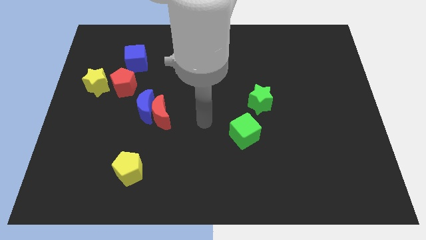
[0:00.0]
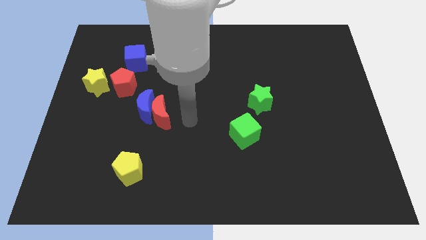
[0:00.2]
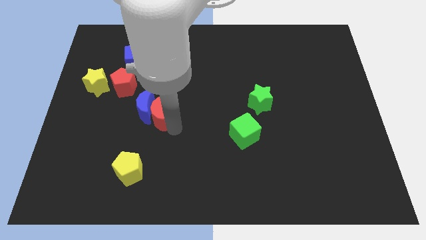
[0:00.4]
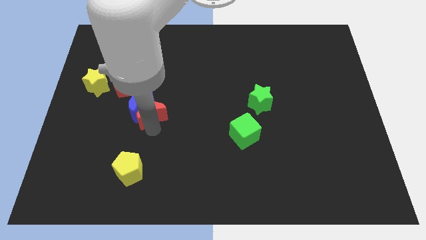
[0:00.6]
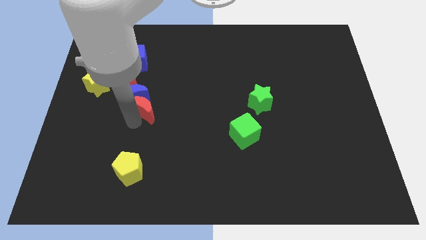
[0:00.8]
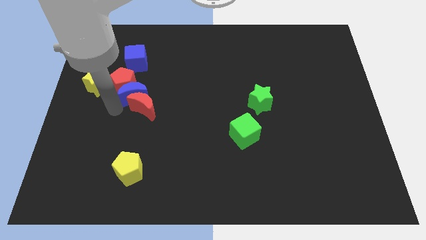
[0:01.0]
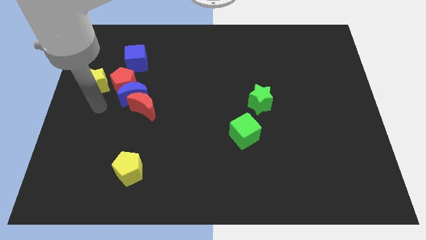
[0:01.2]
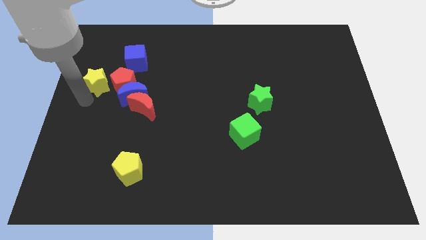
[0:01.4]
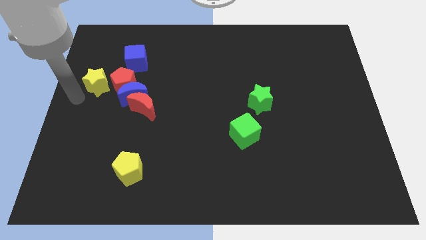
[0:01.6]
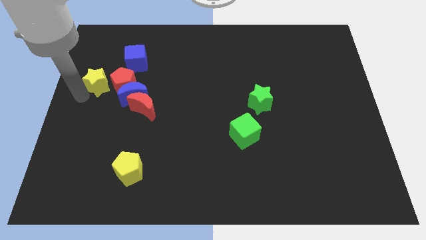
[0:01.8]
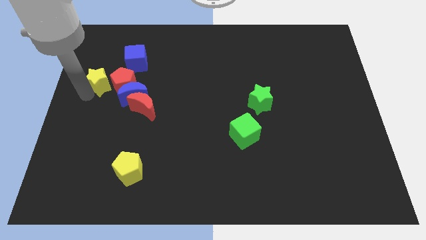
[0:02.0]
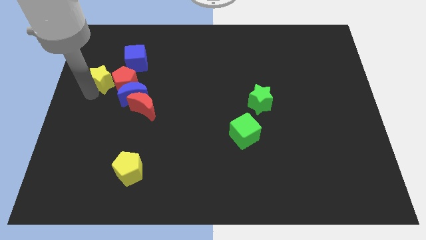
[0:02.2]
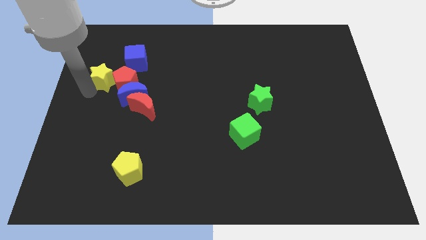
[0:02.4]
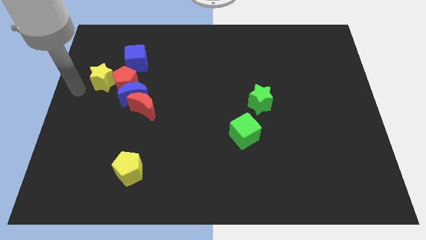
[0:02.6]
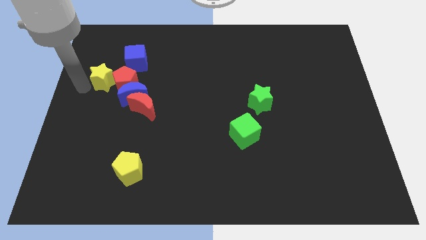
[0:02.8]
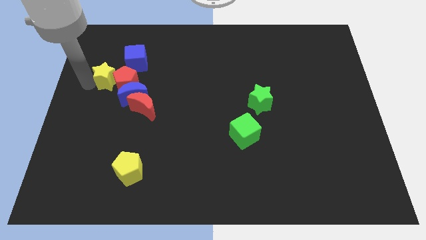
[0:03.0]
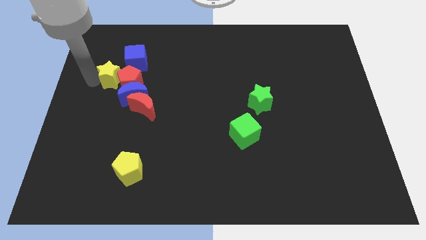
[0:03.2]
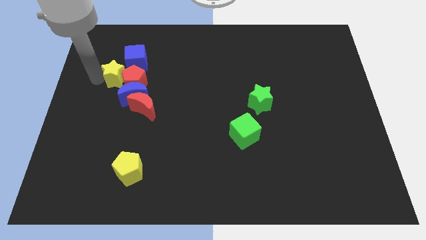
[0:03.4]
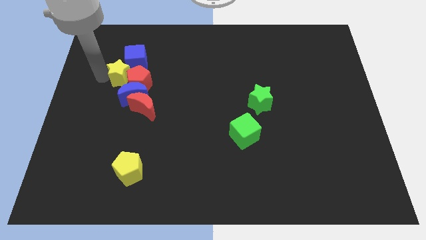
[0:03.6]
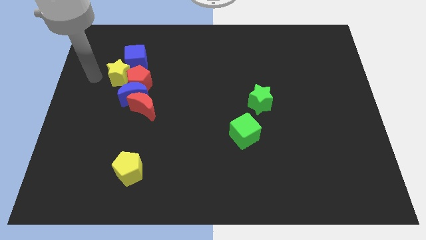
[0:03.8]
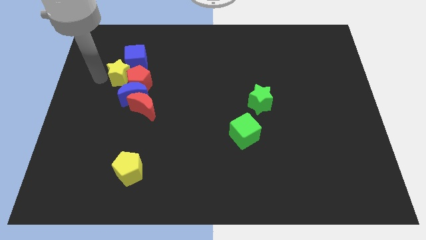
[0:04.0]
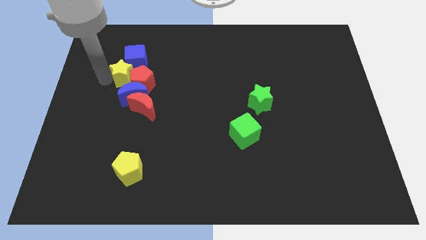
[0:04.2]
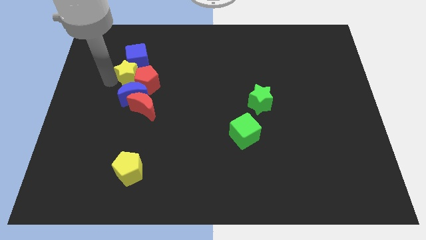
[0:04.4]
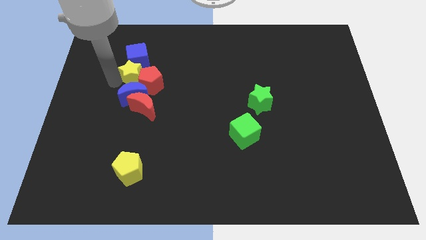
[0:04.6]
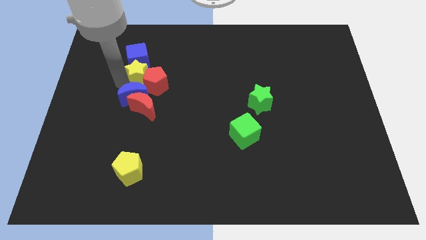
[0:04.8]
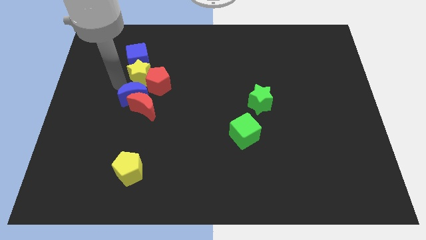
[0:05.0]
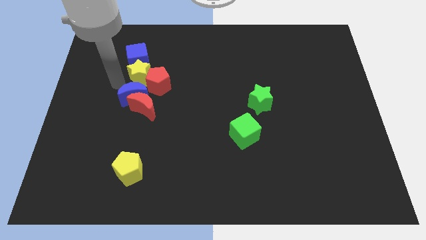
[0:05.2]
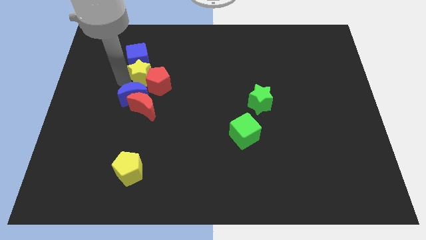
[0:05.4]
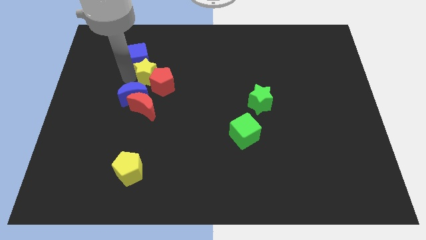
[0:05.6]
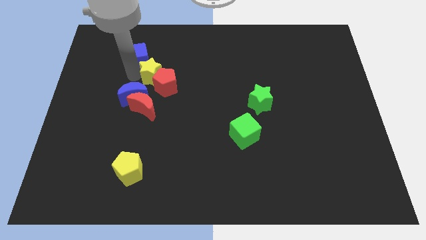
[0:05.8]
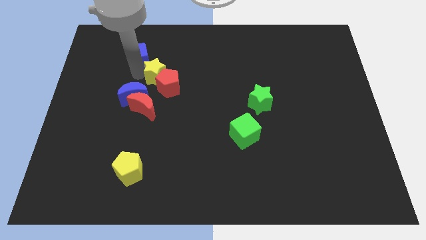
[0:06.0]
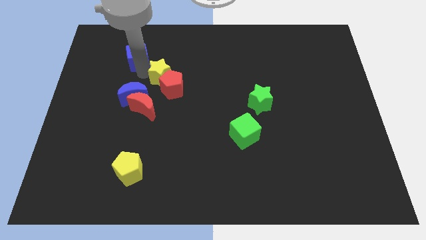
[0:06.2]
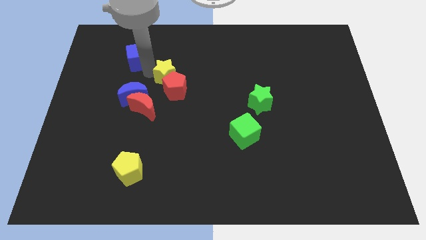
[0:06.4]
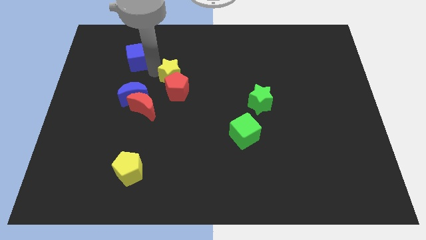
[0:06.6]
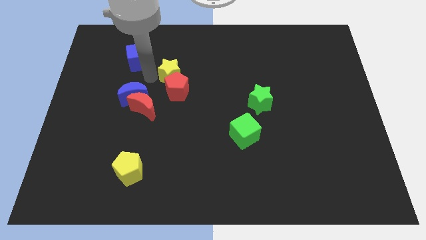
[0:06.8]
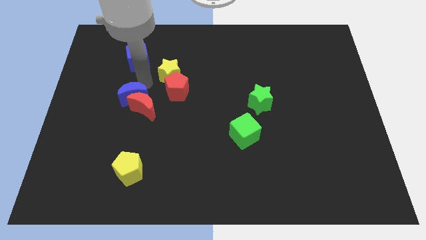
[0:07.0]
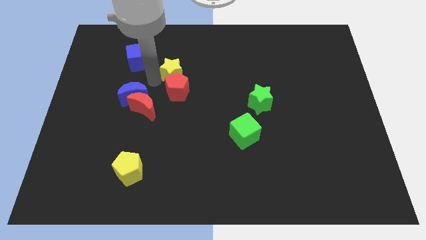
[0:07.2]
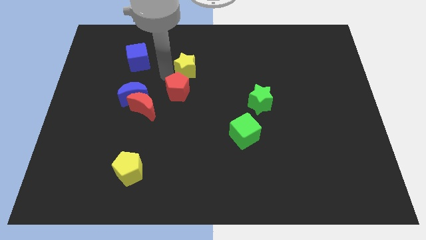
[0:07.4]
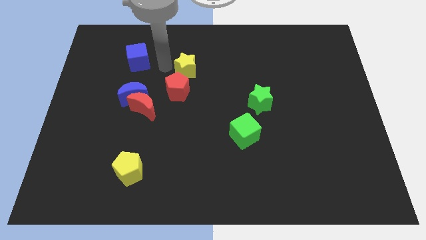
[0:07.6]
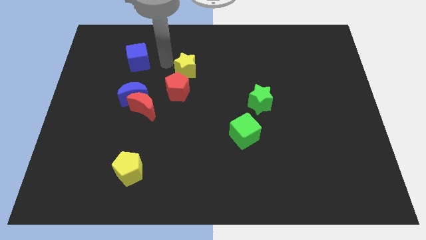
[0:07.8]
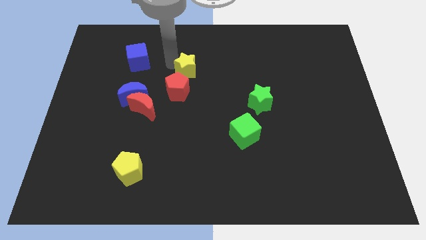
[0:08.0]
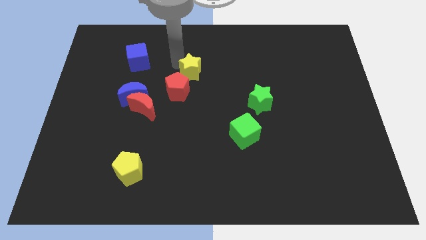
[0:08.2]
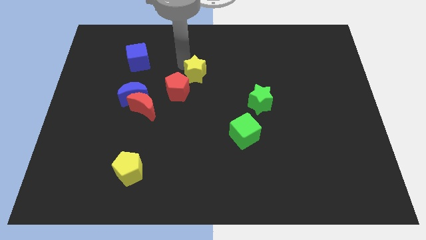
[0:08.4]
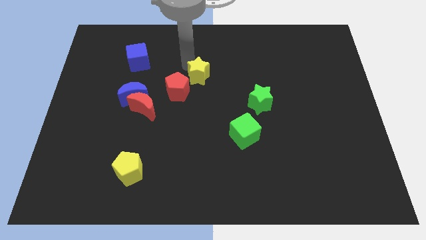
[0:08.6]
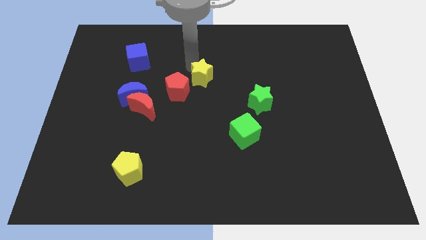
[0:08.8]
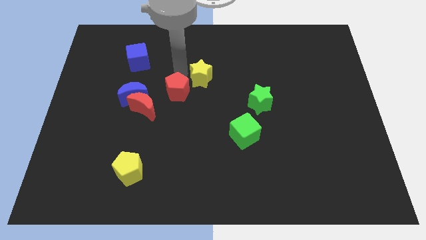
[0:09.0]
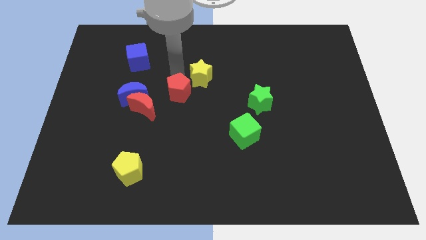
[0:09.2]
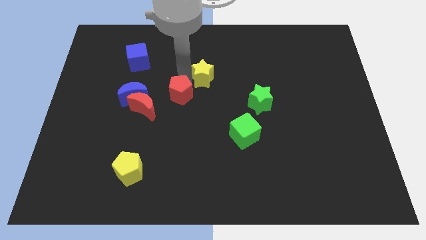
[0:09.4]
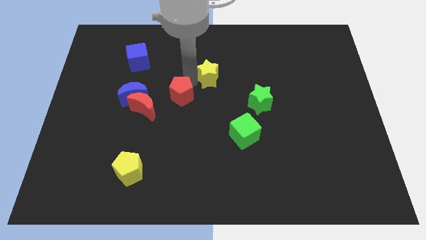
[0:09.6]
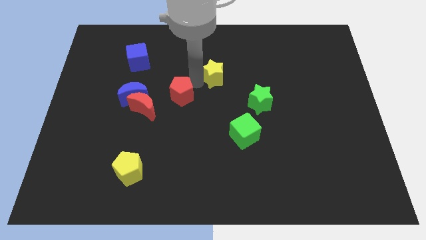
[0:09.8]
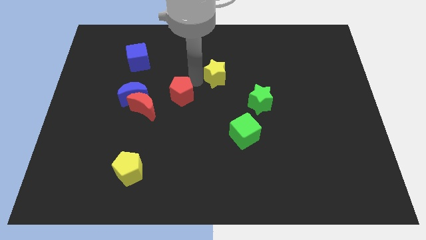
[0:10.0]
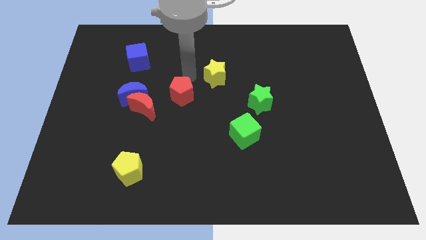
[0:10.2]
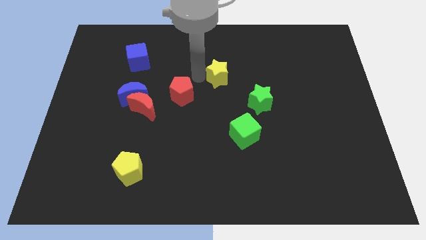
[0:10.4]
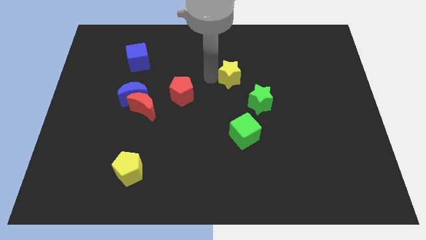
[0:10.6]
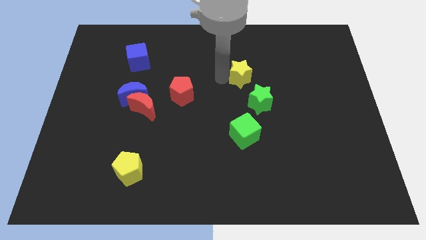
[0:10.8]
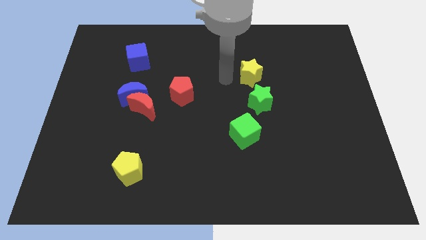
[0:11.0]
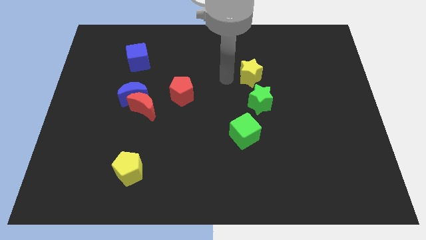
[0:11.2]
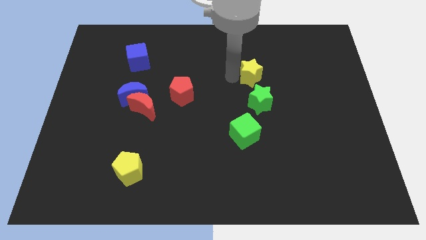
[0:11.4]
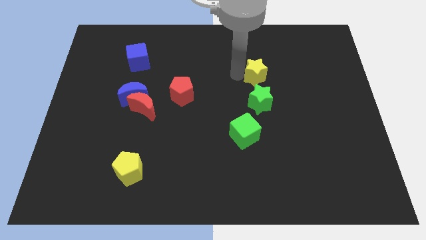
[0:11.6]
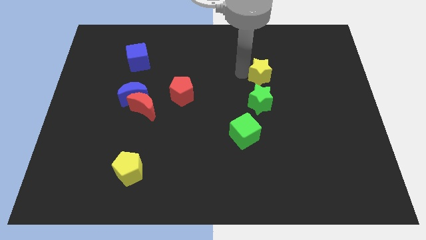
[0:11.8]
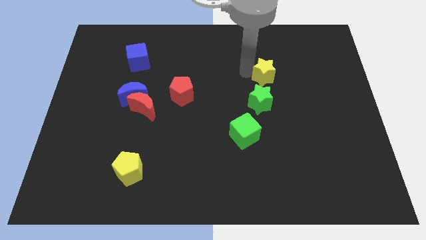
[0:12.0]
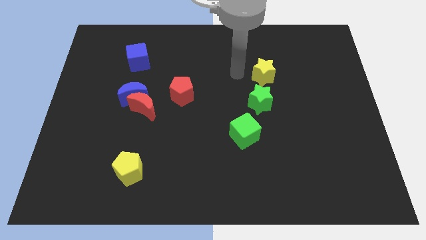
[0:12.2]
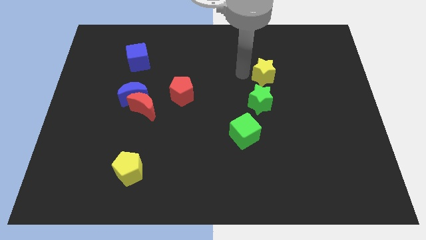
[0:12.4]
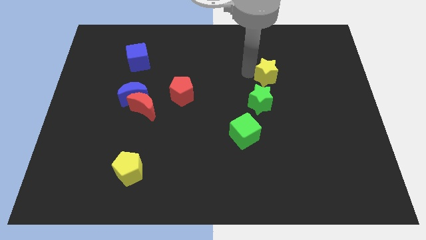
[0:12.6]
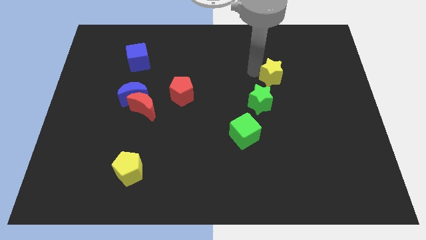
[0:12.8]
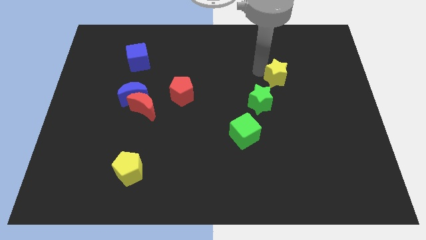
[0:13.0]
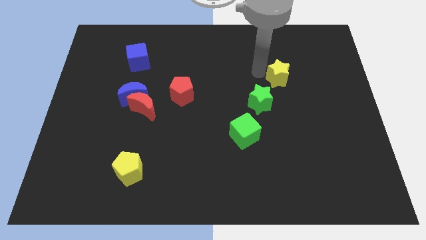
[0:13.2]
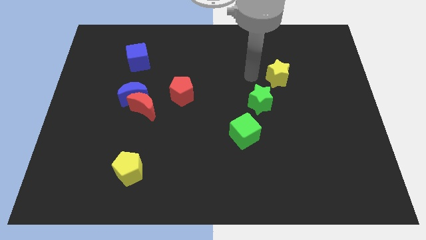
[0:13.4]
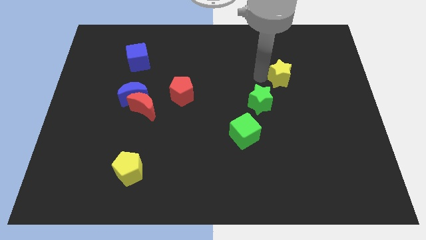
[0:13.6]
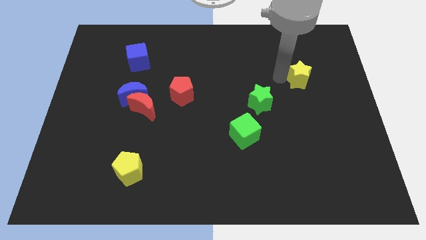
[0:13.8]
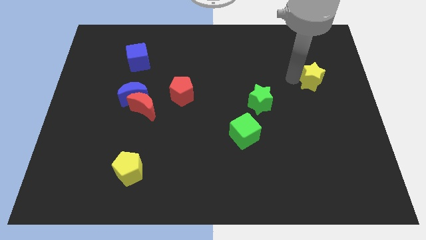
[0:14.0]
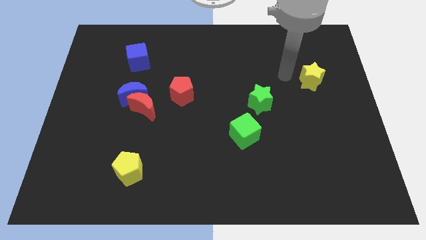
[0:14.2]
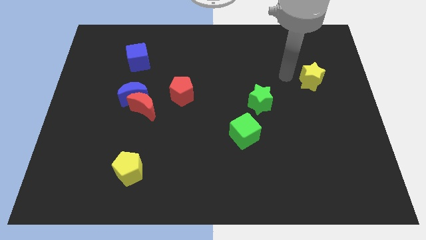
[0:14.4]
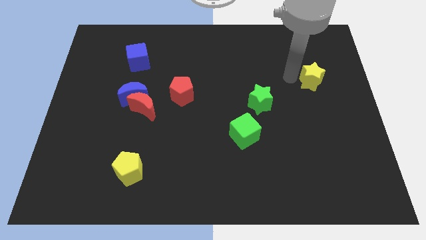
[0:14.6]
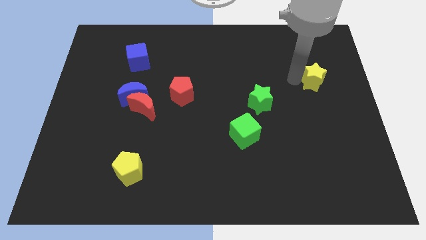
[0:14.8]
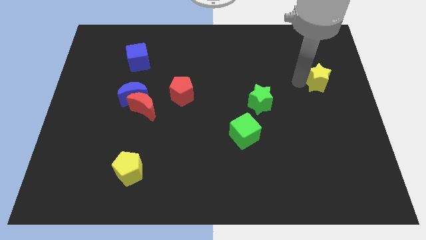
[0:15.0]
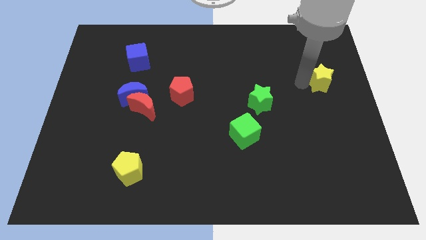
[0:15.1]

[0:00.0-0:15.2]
put the yellow star to the center right
